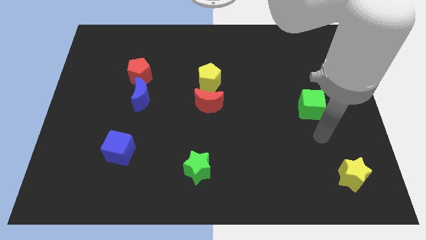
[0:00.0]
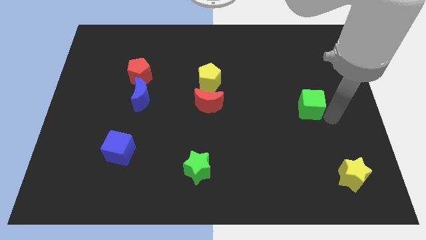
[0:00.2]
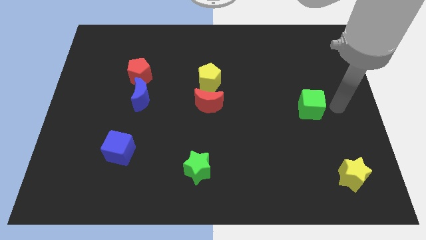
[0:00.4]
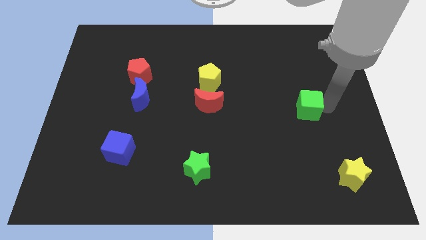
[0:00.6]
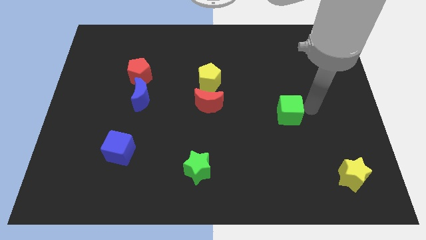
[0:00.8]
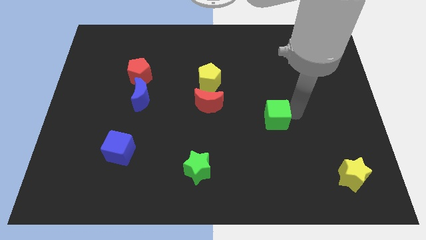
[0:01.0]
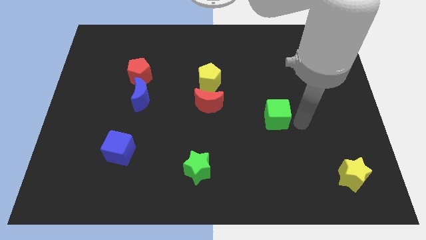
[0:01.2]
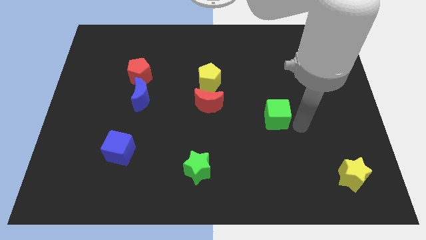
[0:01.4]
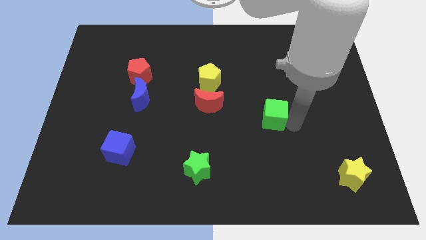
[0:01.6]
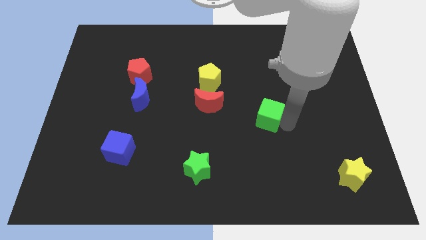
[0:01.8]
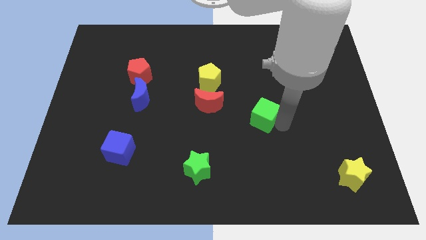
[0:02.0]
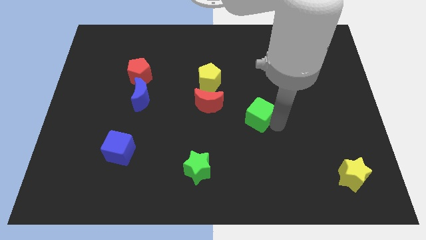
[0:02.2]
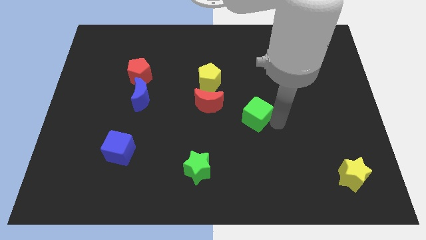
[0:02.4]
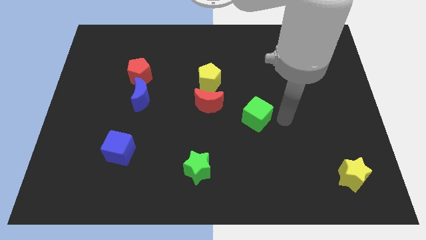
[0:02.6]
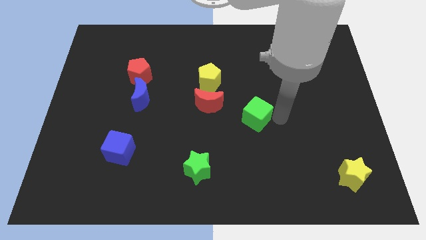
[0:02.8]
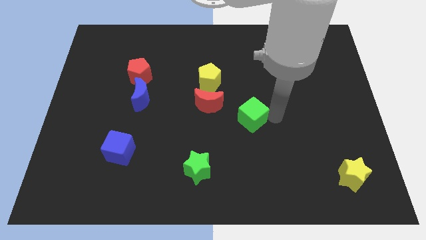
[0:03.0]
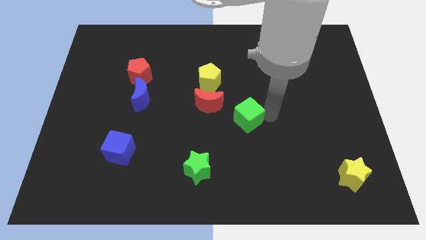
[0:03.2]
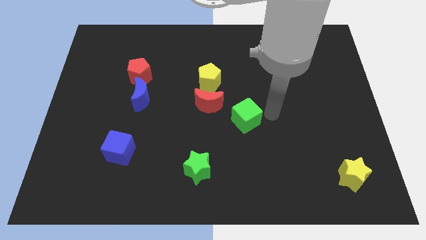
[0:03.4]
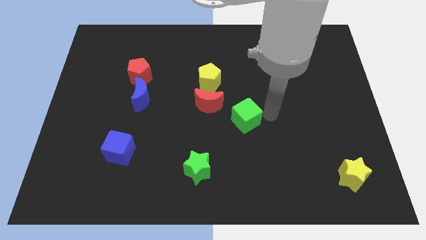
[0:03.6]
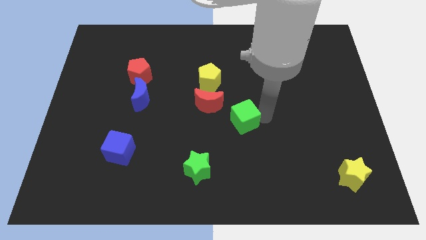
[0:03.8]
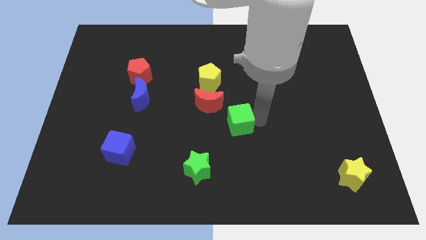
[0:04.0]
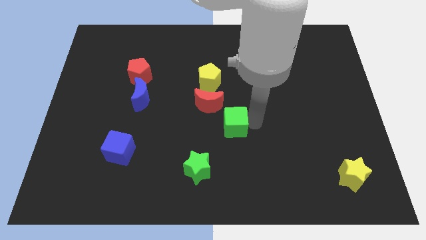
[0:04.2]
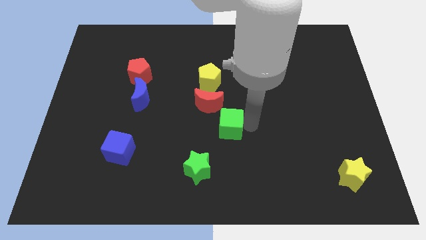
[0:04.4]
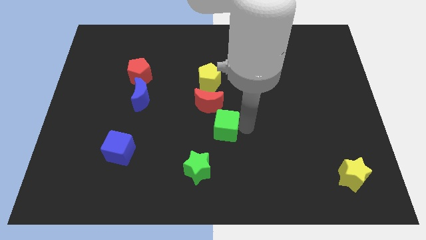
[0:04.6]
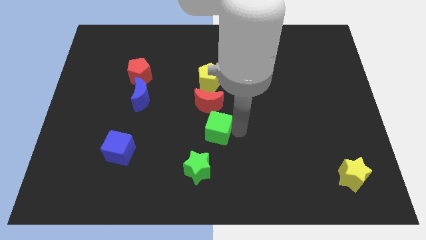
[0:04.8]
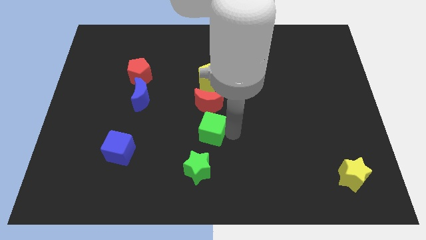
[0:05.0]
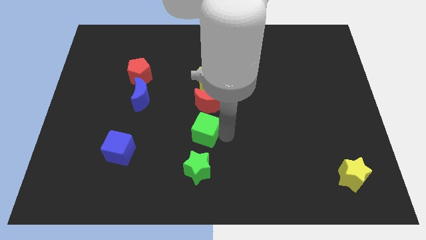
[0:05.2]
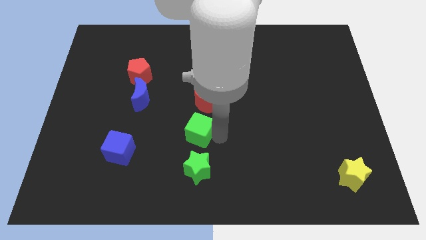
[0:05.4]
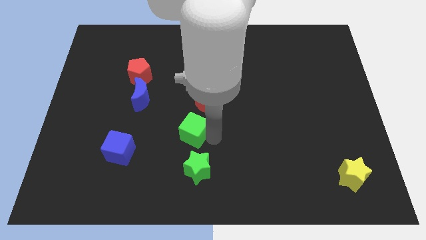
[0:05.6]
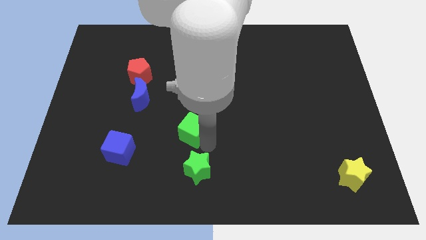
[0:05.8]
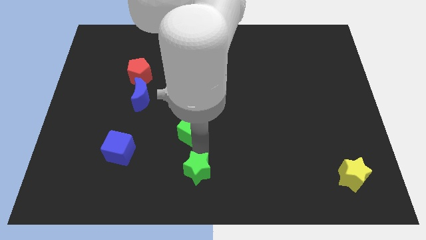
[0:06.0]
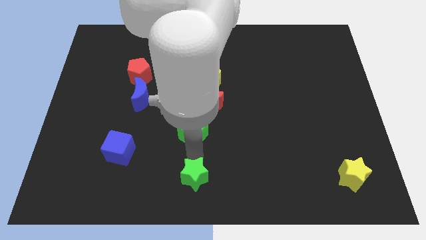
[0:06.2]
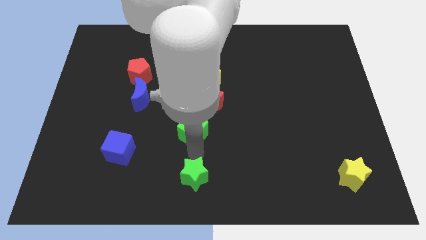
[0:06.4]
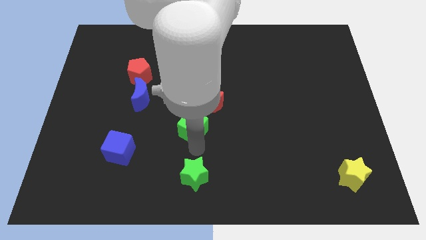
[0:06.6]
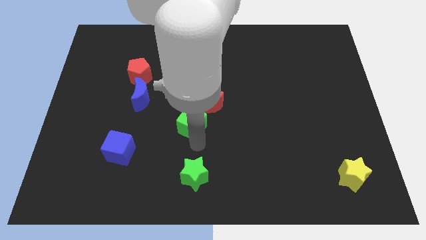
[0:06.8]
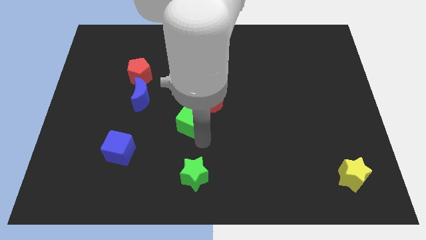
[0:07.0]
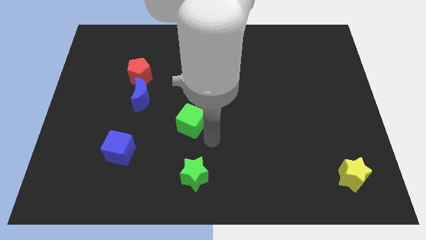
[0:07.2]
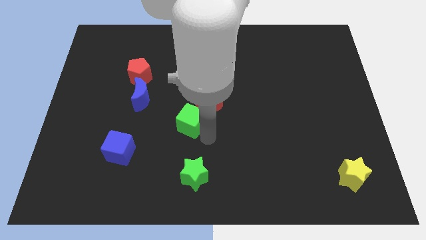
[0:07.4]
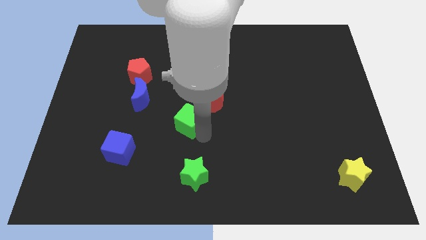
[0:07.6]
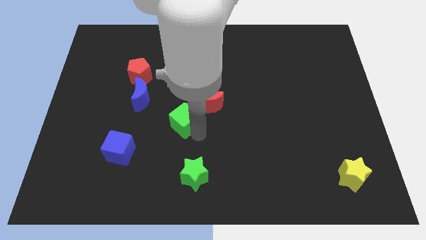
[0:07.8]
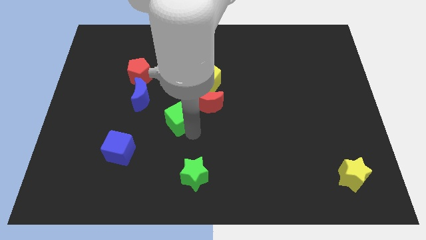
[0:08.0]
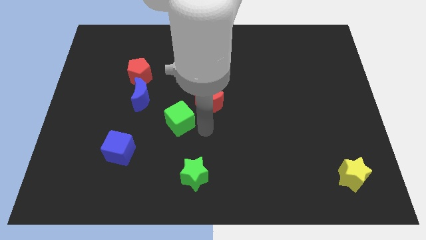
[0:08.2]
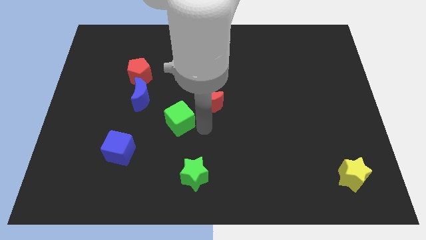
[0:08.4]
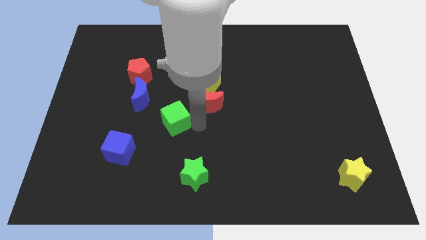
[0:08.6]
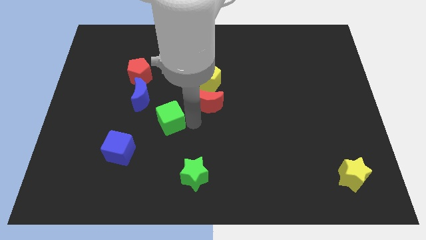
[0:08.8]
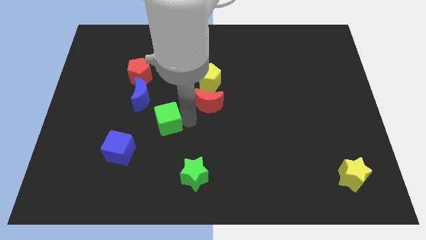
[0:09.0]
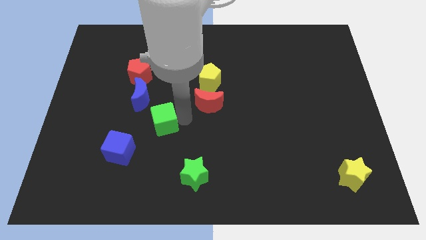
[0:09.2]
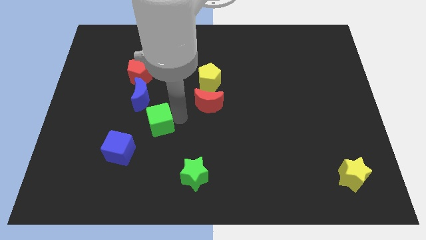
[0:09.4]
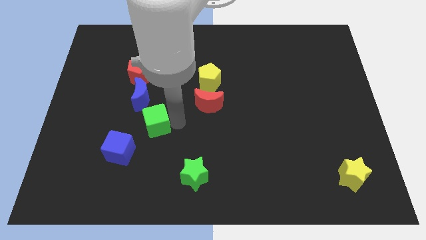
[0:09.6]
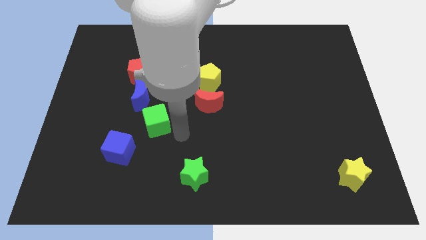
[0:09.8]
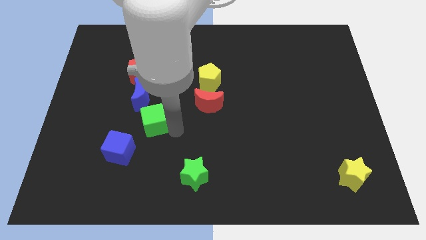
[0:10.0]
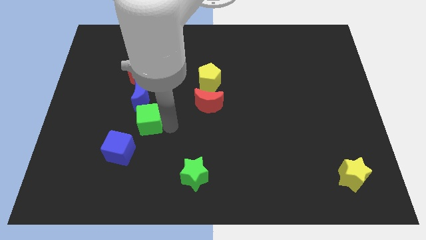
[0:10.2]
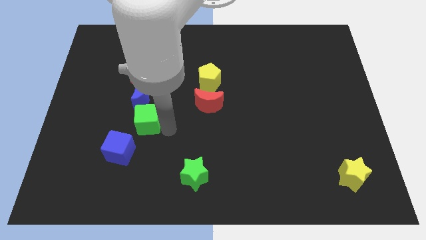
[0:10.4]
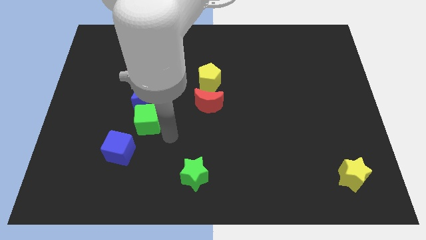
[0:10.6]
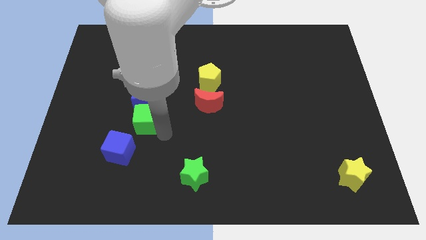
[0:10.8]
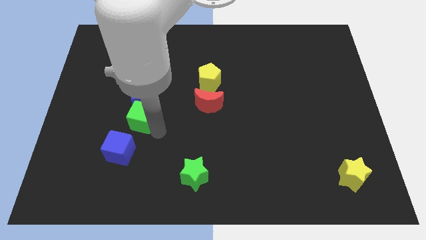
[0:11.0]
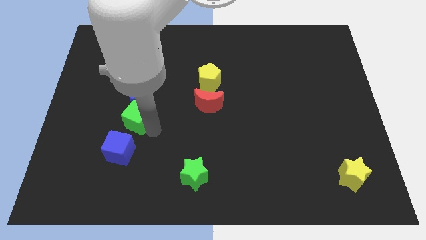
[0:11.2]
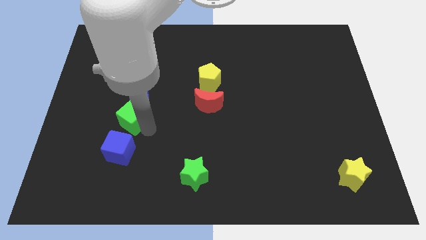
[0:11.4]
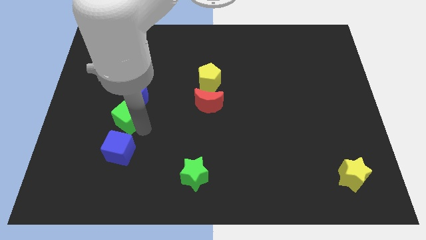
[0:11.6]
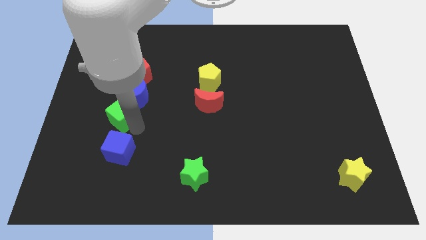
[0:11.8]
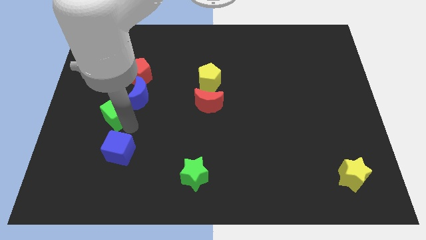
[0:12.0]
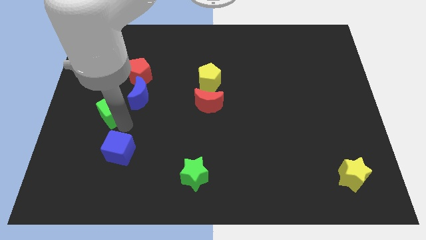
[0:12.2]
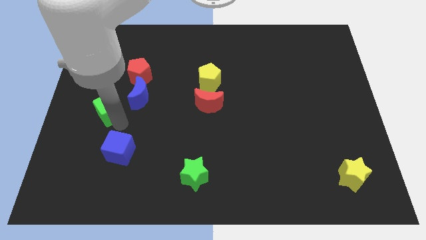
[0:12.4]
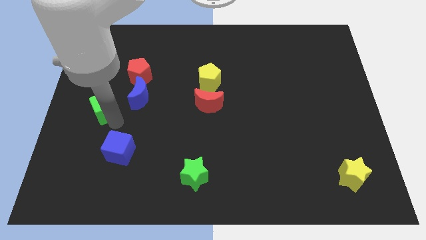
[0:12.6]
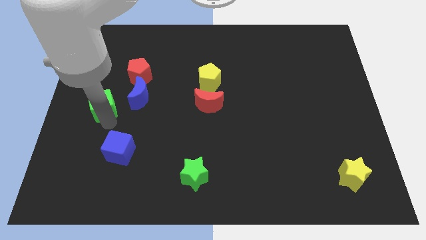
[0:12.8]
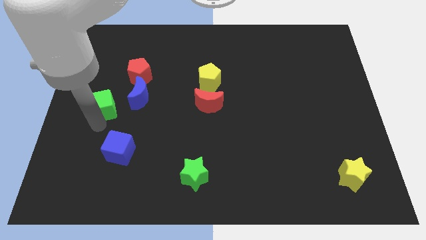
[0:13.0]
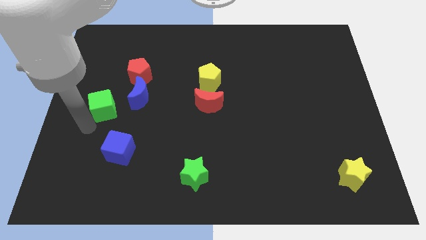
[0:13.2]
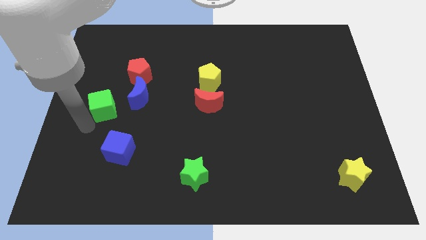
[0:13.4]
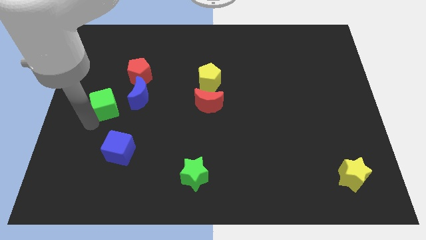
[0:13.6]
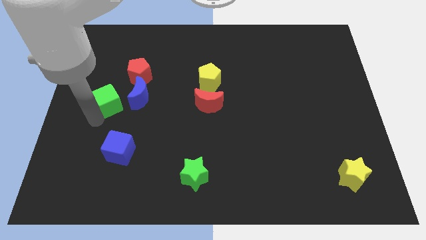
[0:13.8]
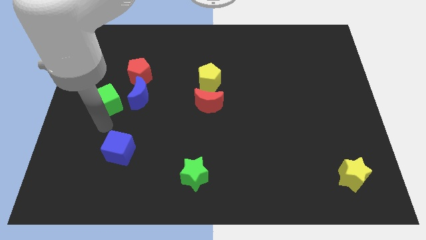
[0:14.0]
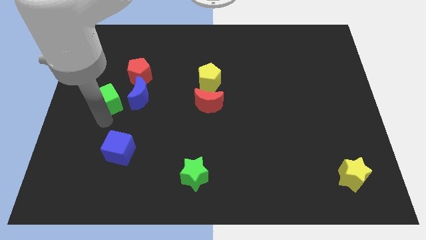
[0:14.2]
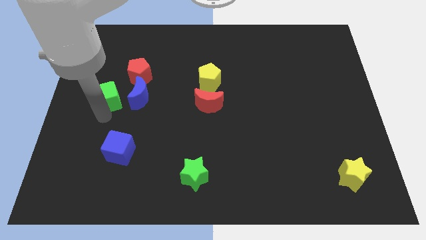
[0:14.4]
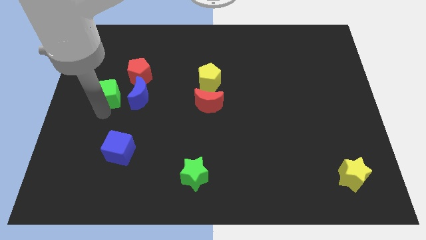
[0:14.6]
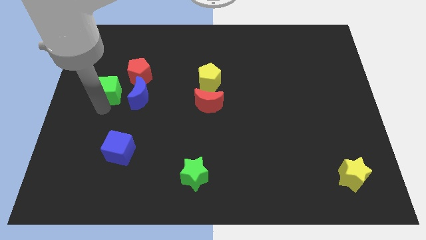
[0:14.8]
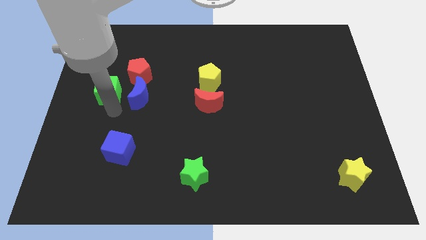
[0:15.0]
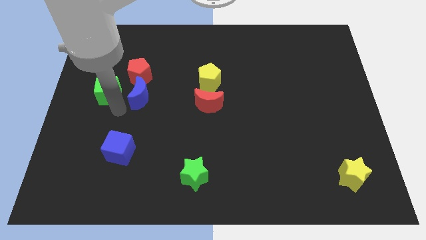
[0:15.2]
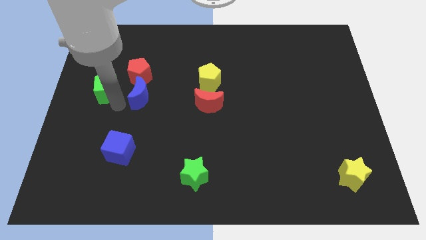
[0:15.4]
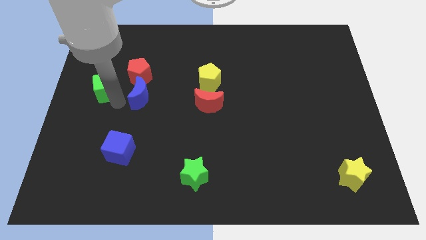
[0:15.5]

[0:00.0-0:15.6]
put the green cube to the left side of the red pentagon
